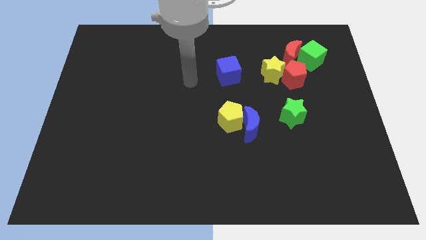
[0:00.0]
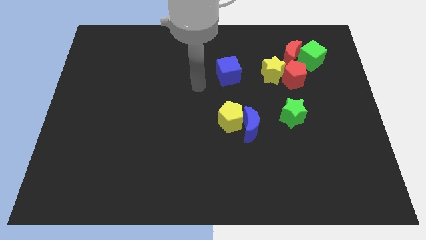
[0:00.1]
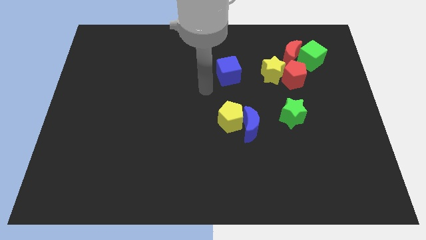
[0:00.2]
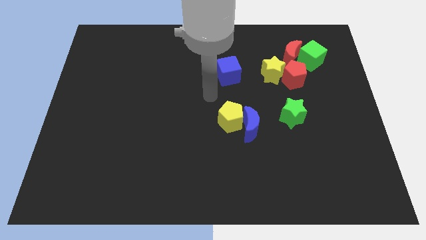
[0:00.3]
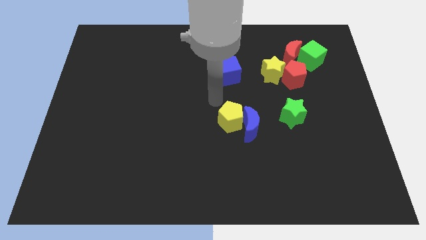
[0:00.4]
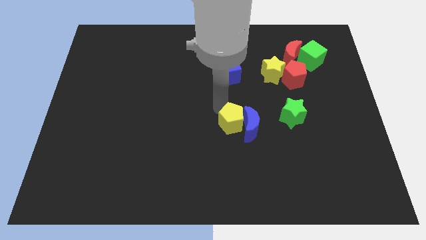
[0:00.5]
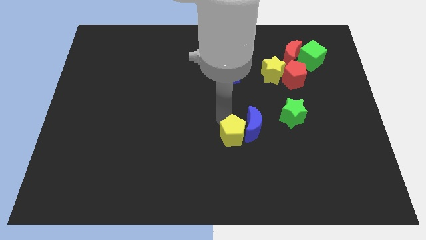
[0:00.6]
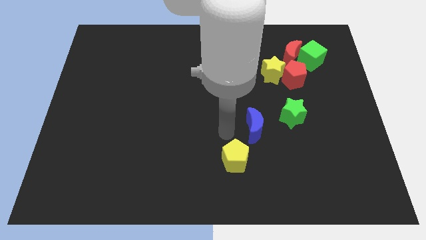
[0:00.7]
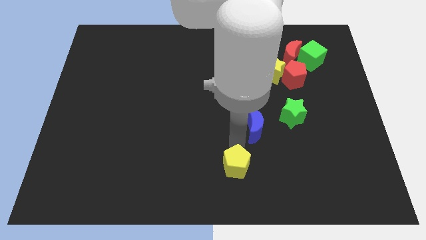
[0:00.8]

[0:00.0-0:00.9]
move the blue moon away from the yellow pentagon

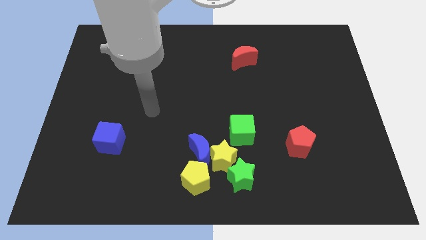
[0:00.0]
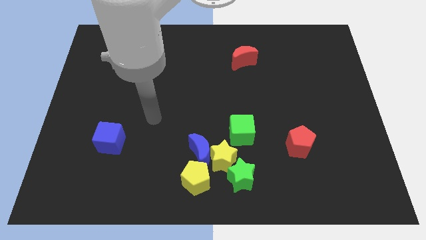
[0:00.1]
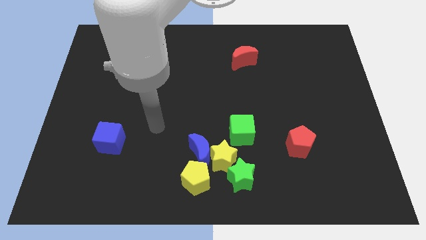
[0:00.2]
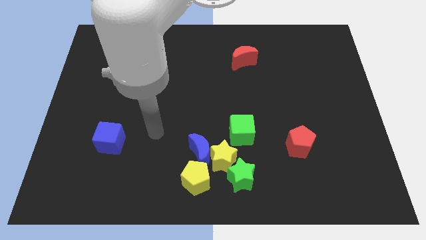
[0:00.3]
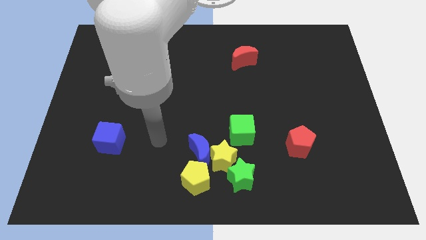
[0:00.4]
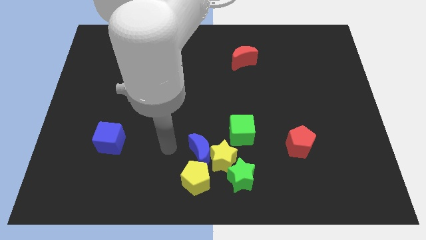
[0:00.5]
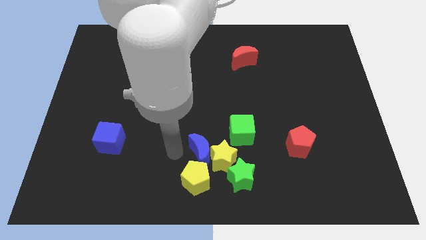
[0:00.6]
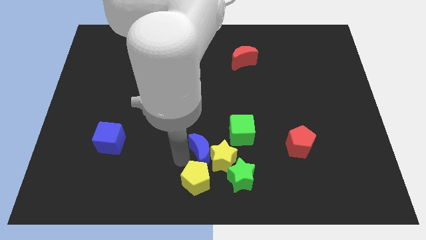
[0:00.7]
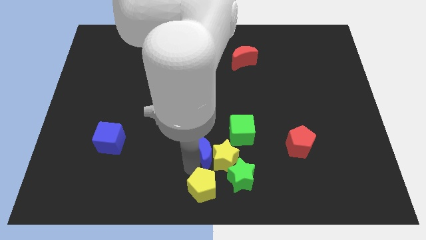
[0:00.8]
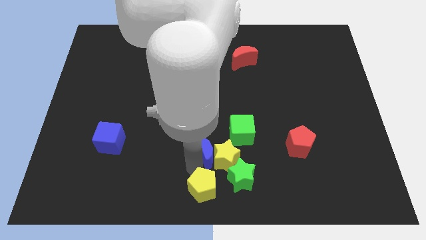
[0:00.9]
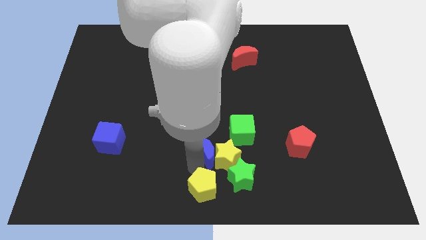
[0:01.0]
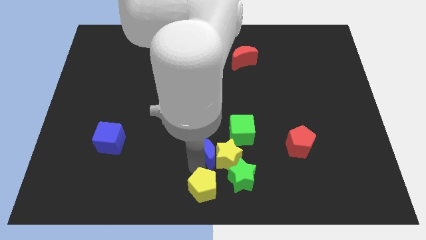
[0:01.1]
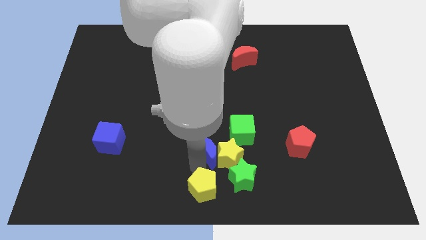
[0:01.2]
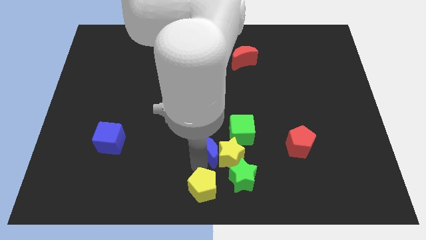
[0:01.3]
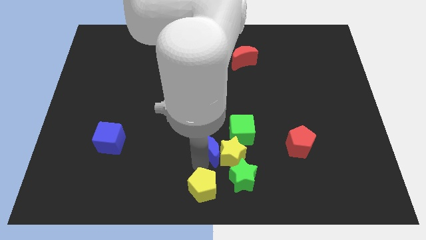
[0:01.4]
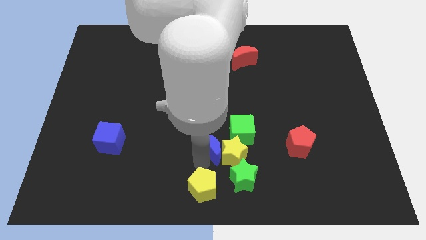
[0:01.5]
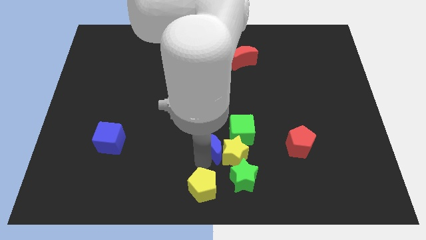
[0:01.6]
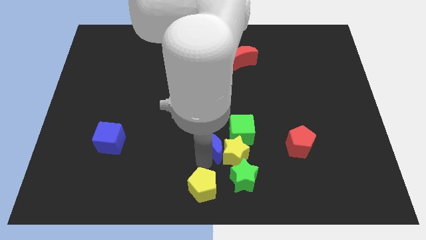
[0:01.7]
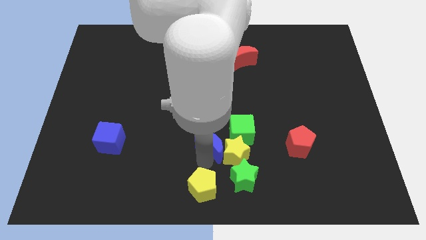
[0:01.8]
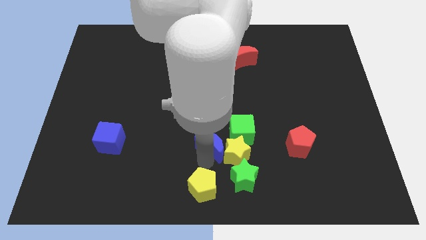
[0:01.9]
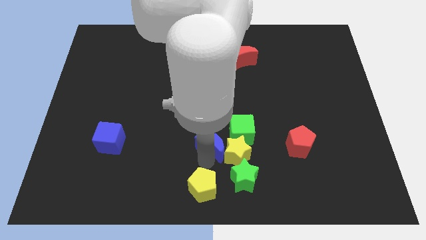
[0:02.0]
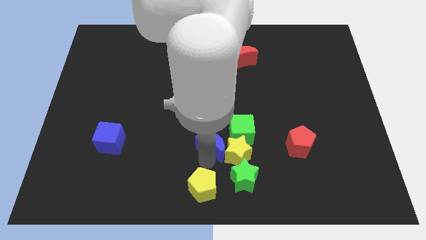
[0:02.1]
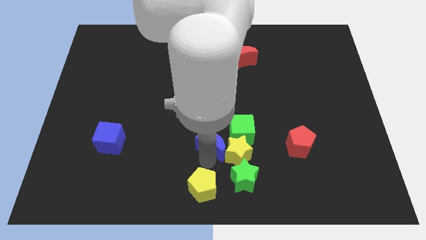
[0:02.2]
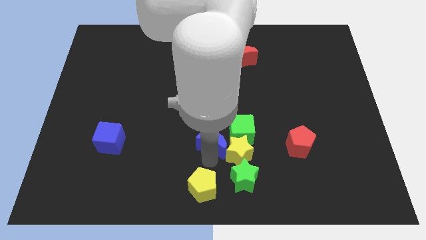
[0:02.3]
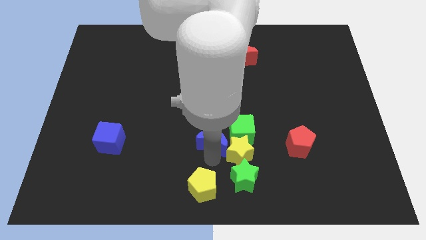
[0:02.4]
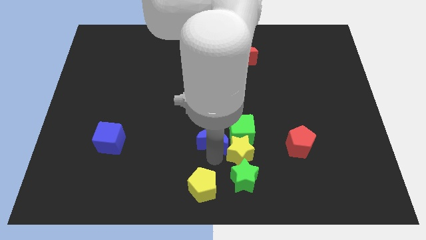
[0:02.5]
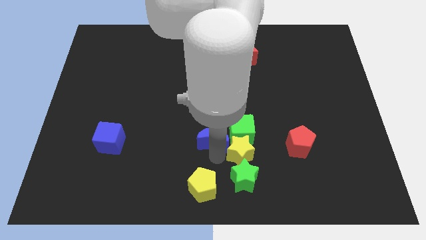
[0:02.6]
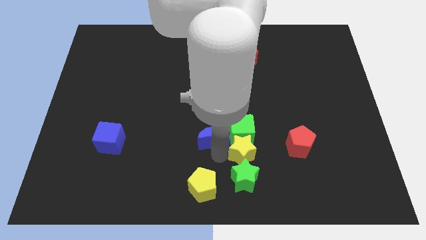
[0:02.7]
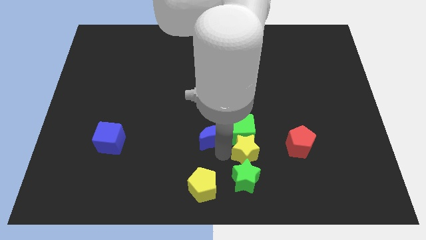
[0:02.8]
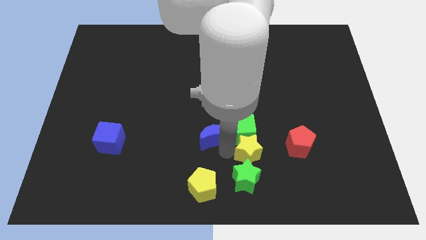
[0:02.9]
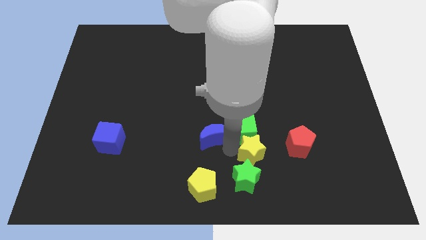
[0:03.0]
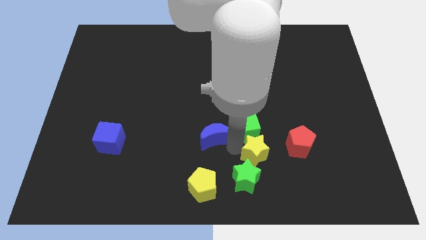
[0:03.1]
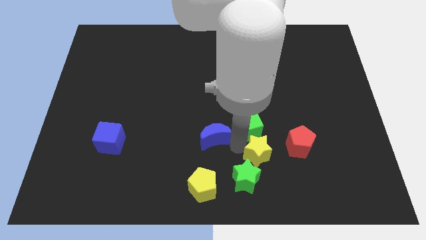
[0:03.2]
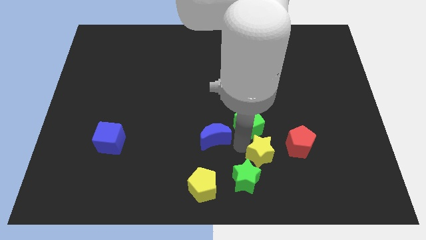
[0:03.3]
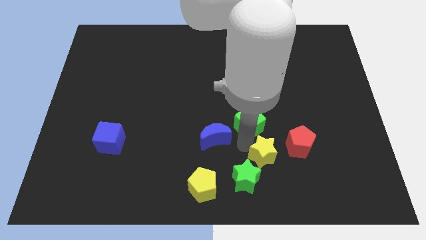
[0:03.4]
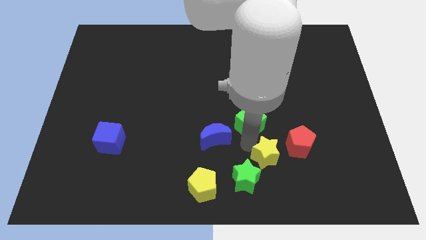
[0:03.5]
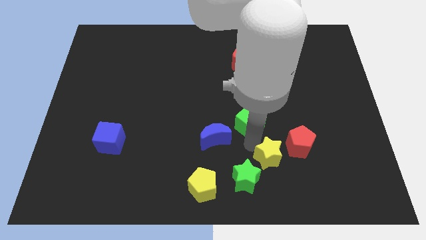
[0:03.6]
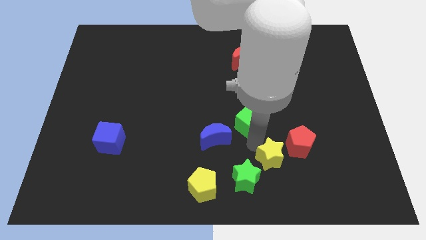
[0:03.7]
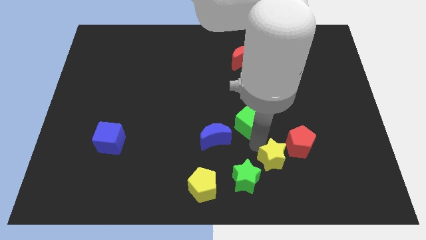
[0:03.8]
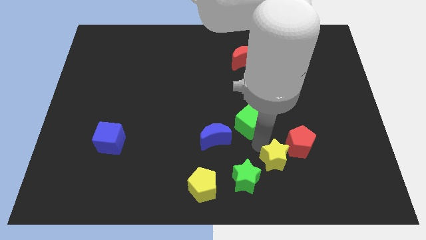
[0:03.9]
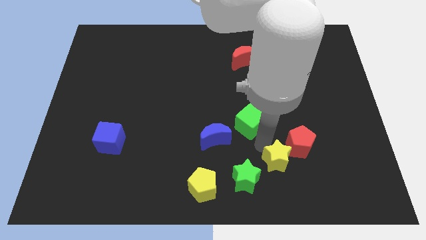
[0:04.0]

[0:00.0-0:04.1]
move the yellow star away from the group

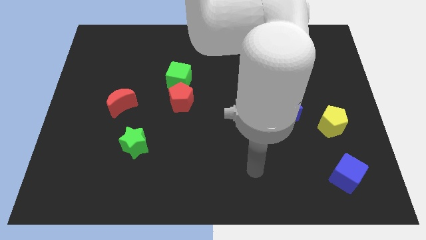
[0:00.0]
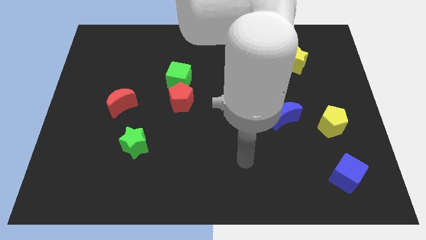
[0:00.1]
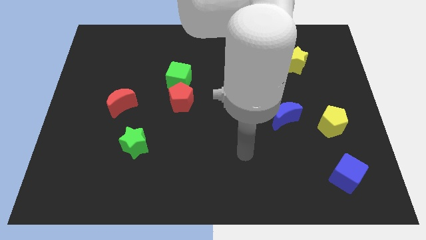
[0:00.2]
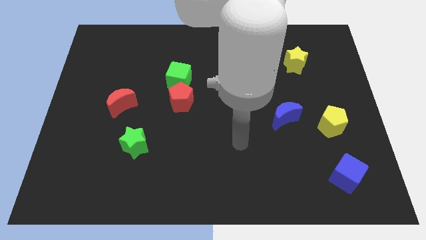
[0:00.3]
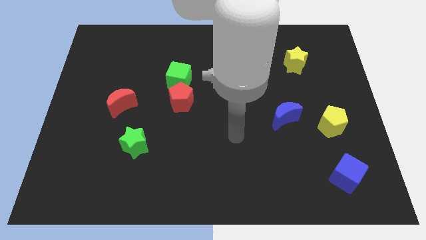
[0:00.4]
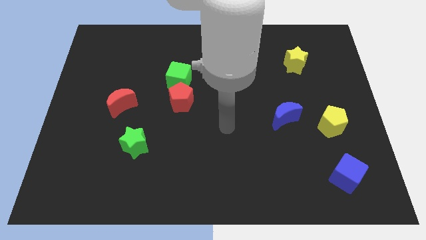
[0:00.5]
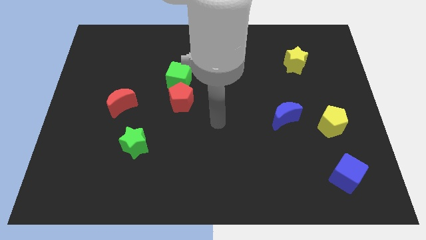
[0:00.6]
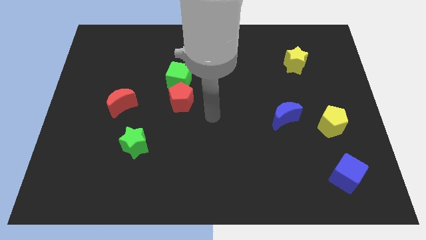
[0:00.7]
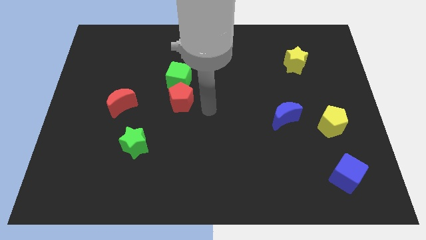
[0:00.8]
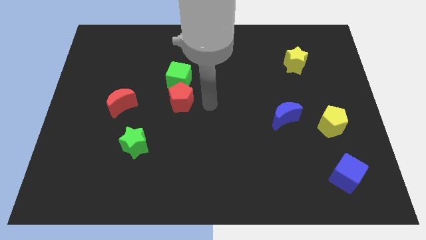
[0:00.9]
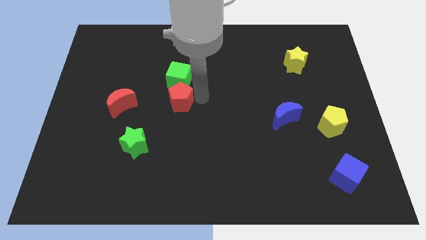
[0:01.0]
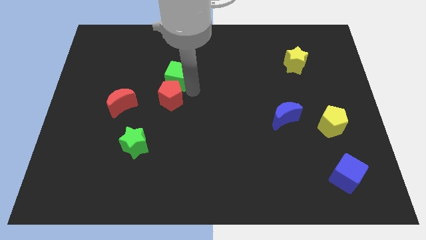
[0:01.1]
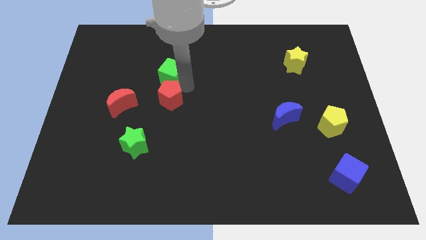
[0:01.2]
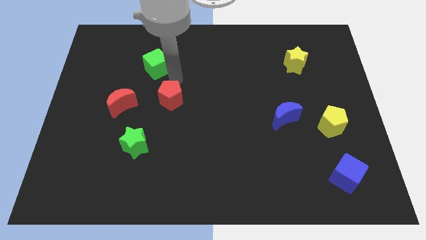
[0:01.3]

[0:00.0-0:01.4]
separate the red pentagon from the green cube

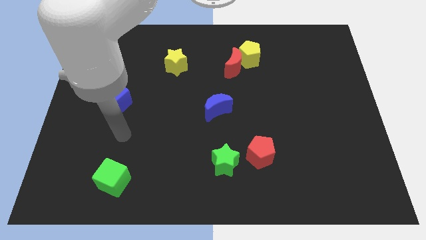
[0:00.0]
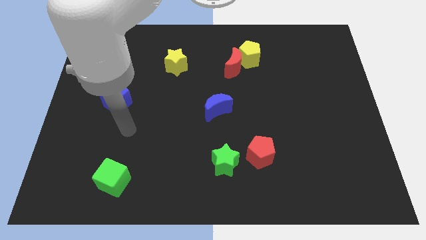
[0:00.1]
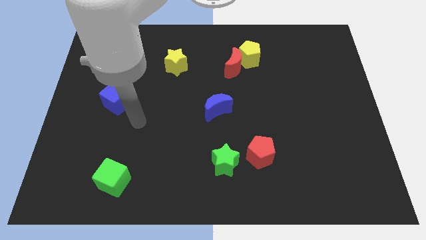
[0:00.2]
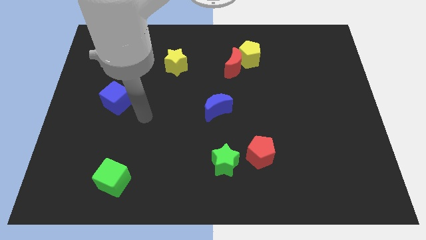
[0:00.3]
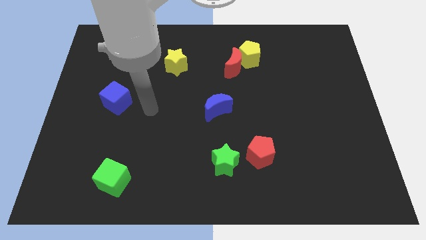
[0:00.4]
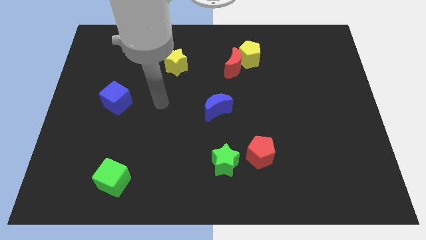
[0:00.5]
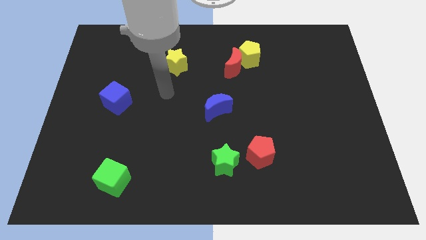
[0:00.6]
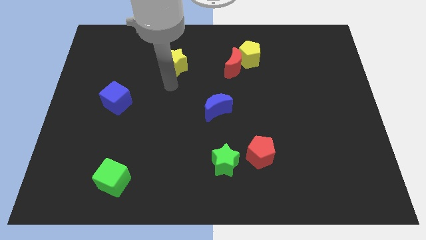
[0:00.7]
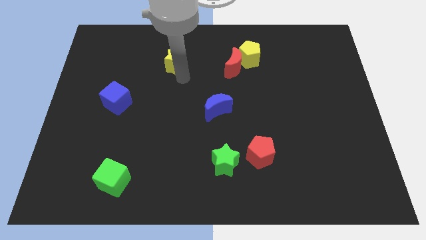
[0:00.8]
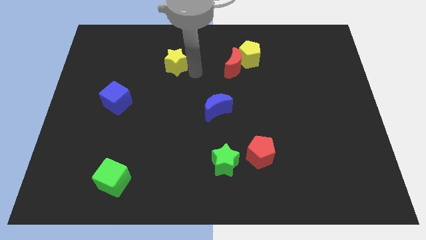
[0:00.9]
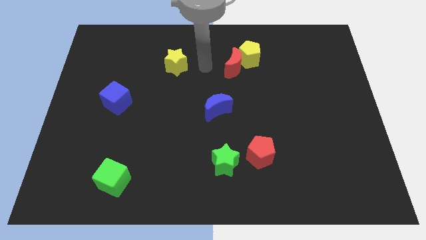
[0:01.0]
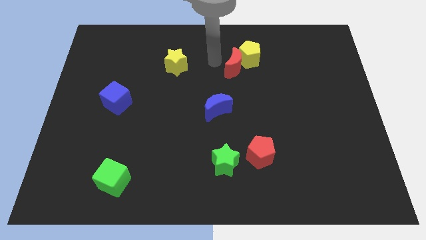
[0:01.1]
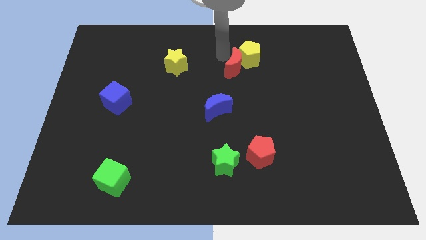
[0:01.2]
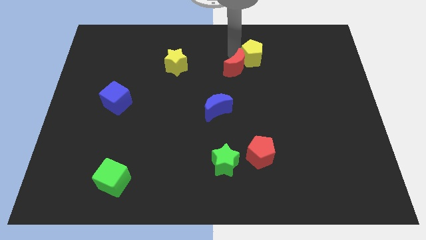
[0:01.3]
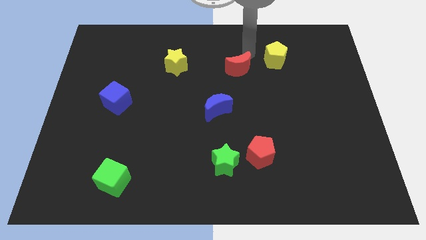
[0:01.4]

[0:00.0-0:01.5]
move the red moon away from the yellow pentagon

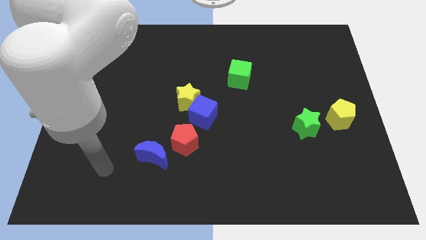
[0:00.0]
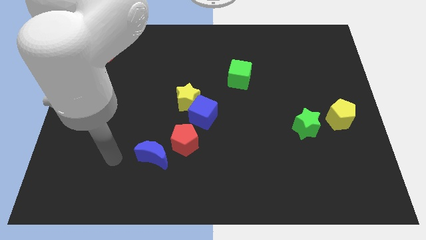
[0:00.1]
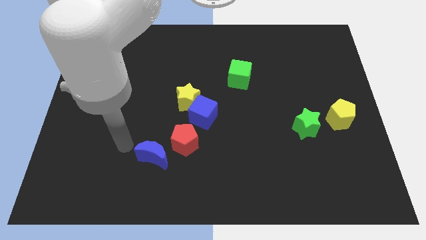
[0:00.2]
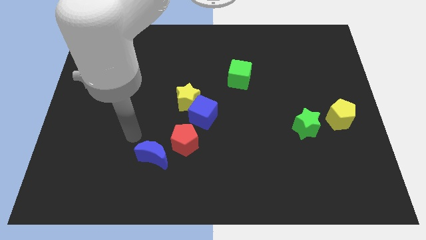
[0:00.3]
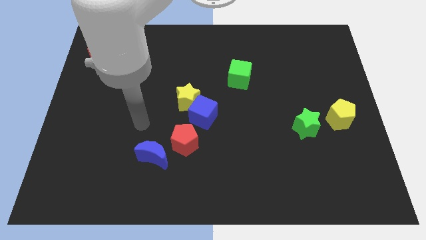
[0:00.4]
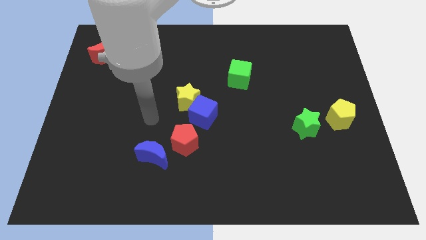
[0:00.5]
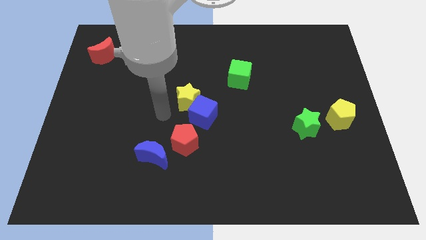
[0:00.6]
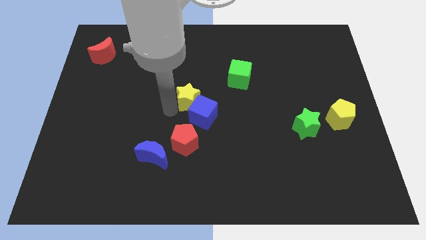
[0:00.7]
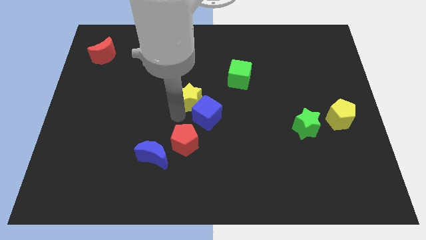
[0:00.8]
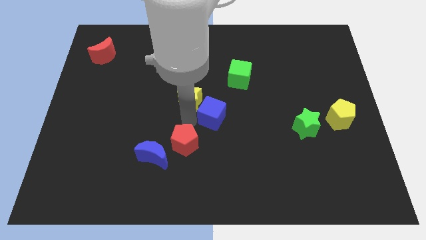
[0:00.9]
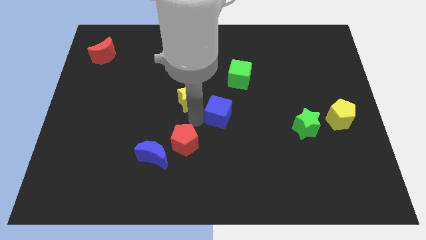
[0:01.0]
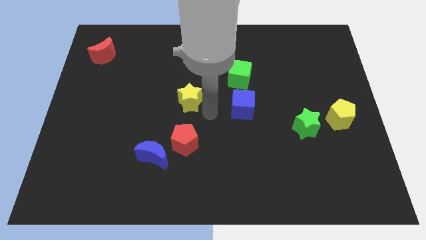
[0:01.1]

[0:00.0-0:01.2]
pull the yellow star apart from the blue cube
